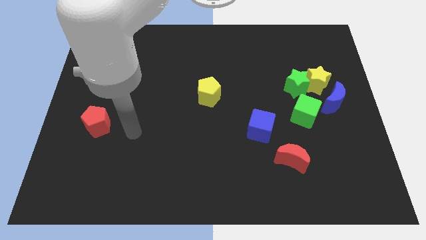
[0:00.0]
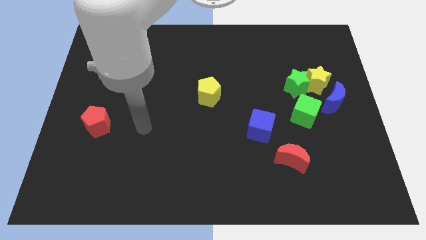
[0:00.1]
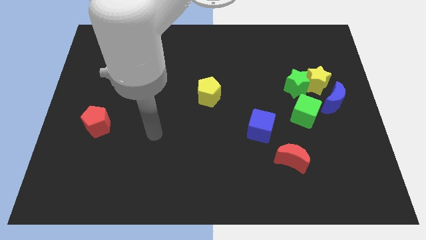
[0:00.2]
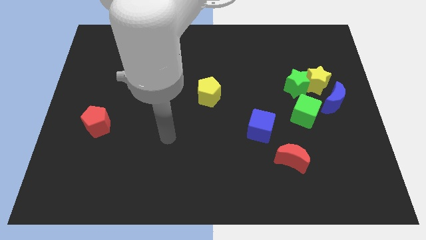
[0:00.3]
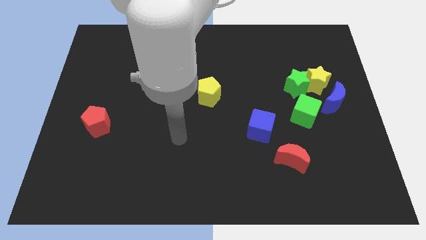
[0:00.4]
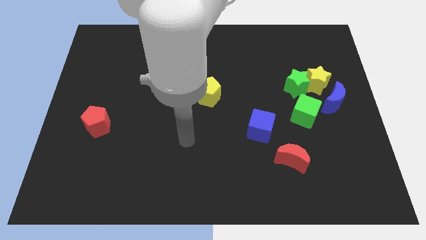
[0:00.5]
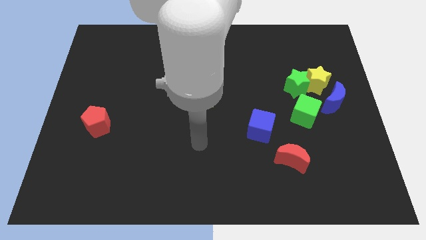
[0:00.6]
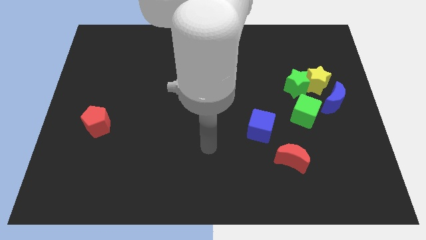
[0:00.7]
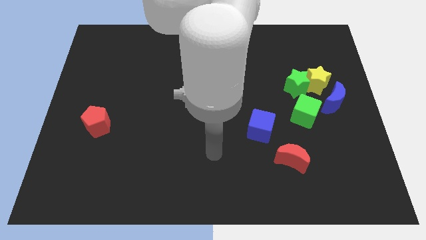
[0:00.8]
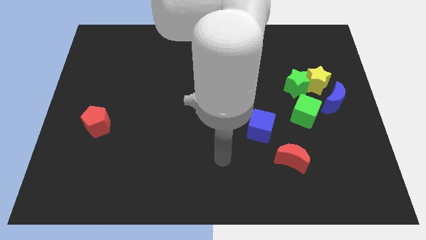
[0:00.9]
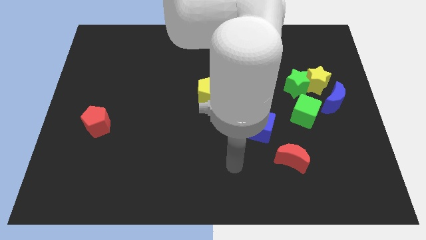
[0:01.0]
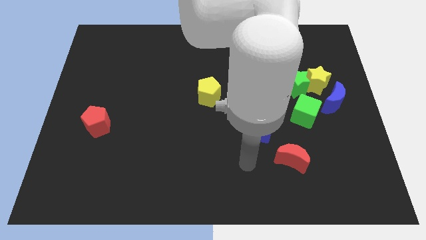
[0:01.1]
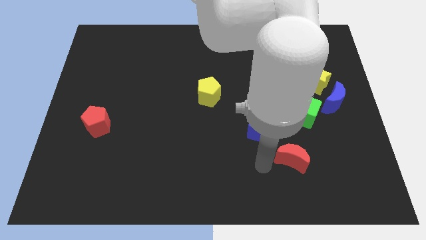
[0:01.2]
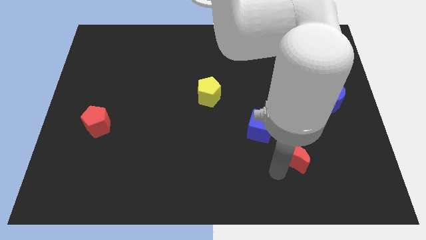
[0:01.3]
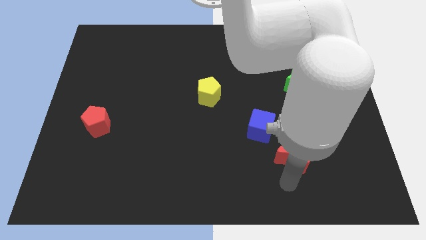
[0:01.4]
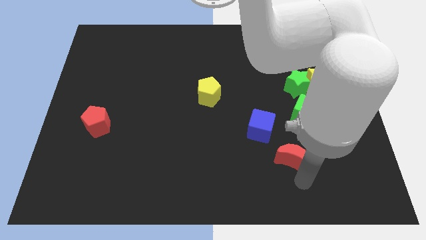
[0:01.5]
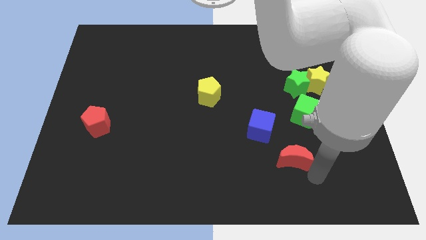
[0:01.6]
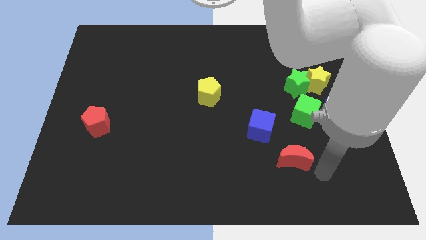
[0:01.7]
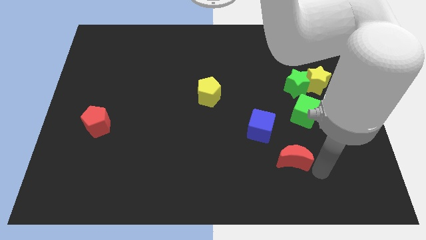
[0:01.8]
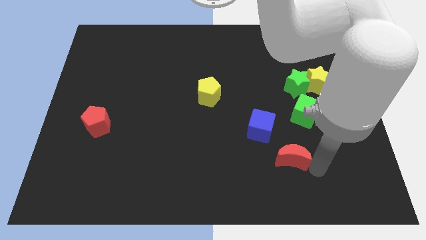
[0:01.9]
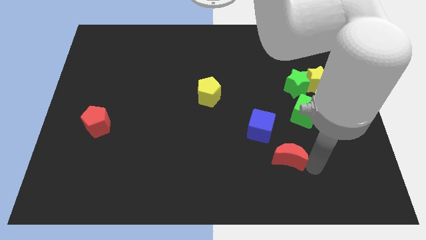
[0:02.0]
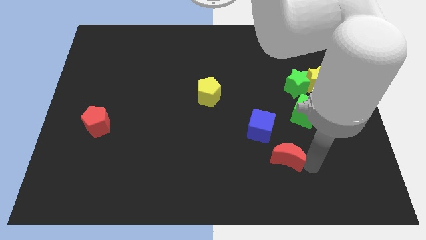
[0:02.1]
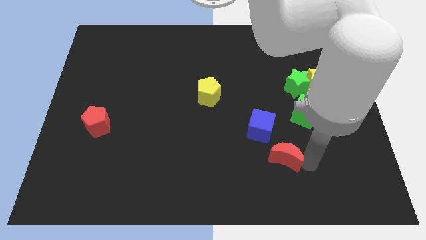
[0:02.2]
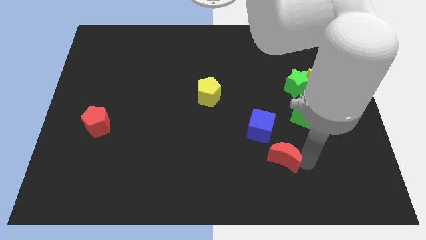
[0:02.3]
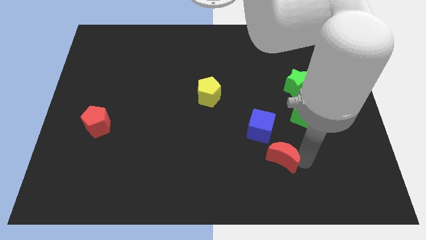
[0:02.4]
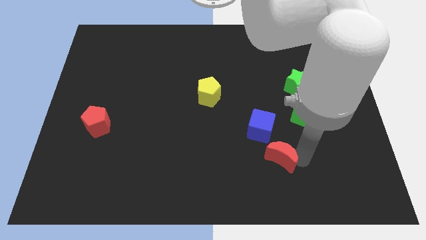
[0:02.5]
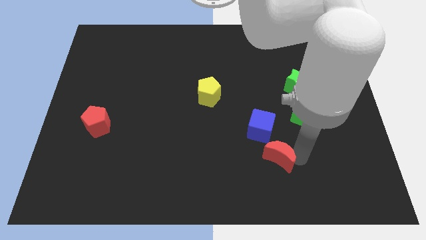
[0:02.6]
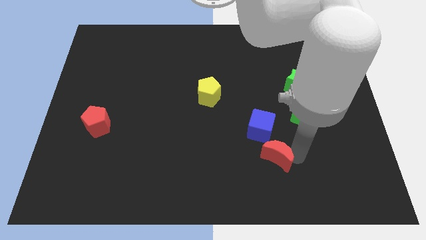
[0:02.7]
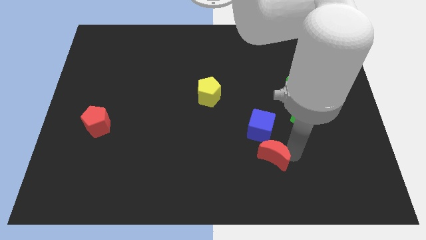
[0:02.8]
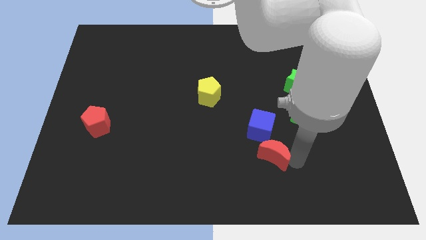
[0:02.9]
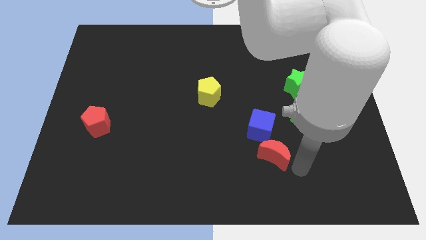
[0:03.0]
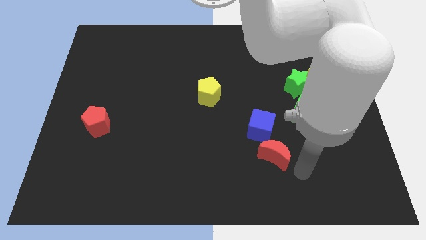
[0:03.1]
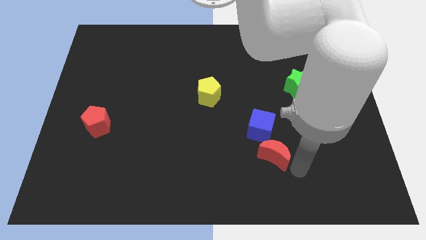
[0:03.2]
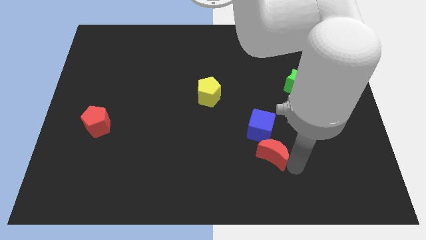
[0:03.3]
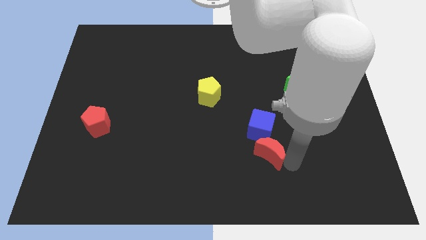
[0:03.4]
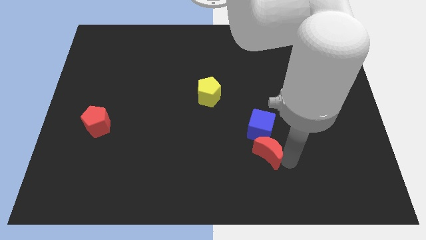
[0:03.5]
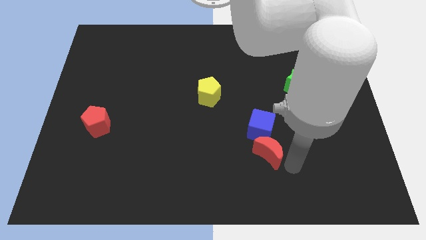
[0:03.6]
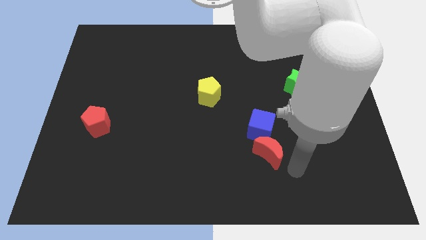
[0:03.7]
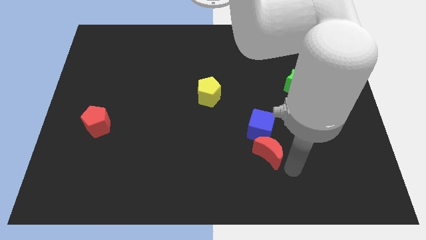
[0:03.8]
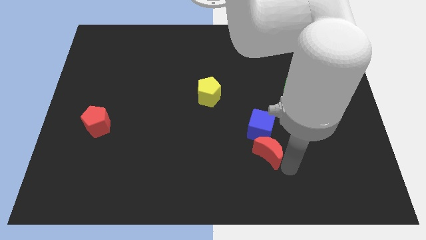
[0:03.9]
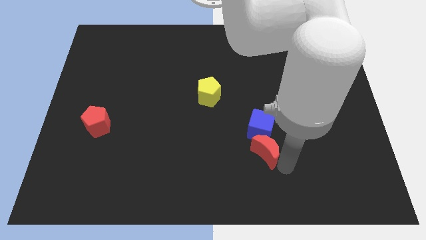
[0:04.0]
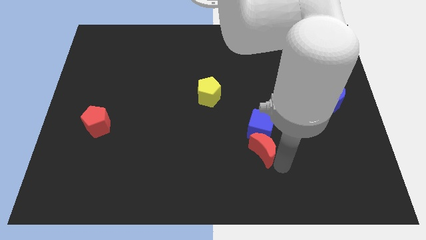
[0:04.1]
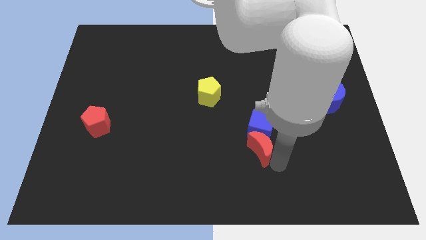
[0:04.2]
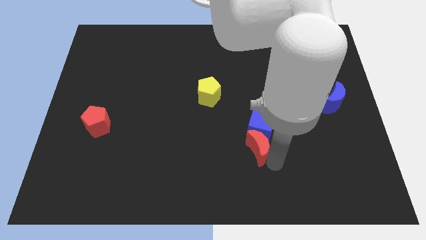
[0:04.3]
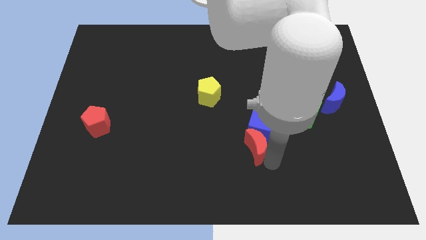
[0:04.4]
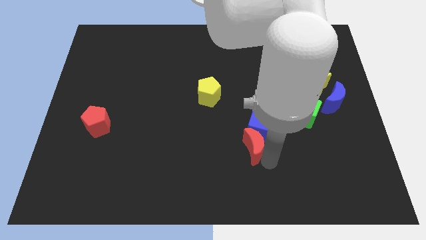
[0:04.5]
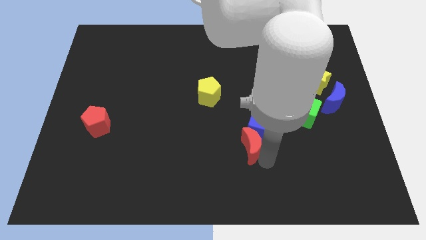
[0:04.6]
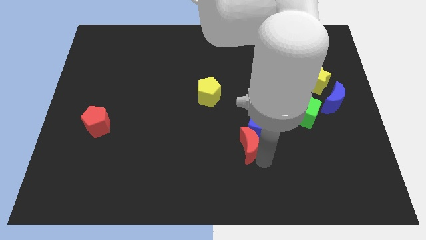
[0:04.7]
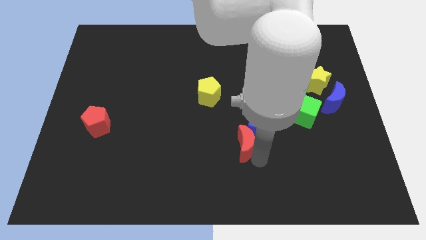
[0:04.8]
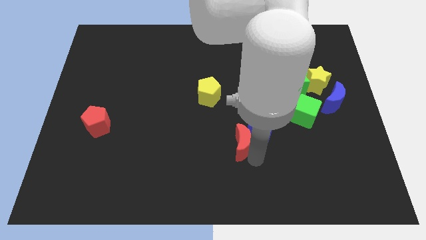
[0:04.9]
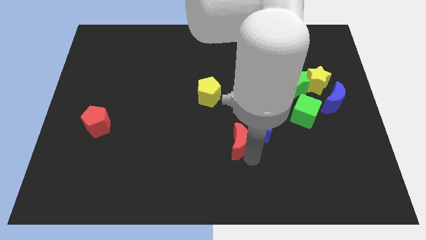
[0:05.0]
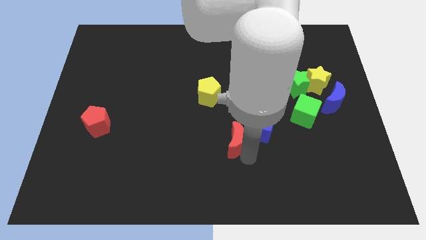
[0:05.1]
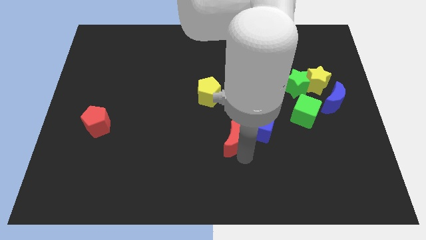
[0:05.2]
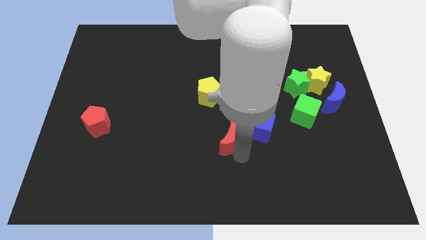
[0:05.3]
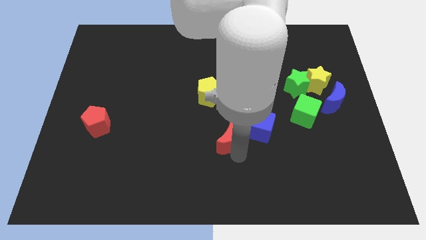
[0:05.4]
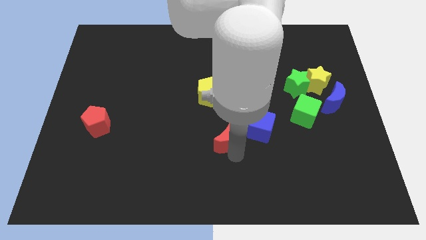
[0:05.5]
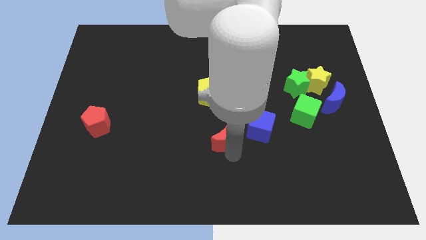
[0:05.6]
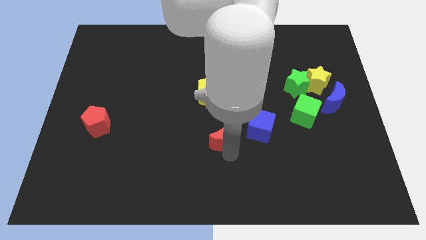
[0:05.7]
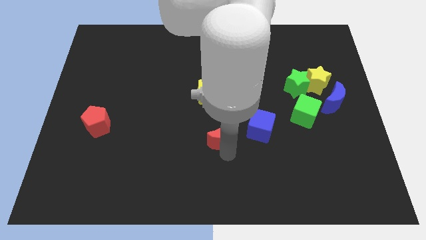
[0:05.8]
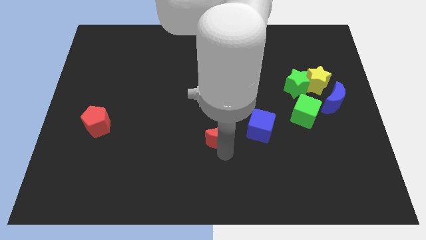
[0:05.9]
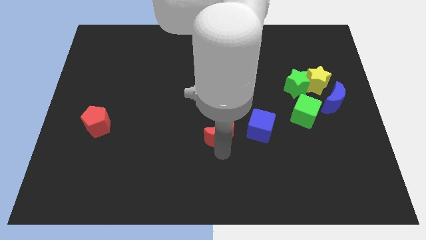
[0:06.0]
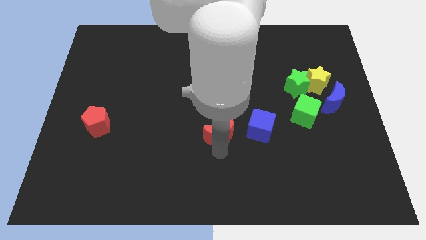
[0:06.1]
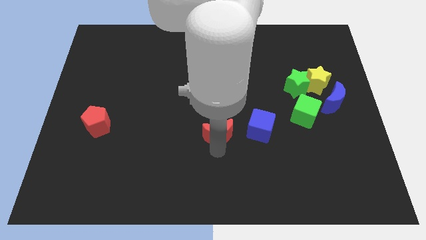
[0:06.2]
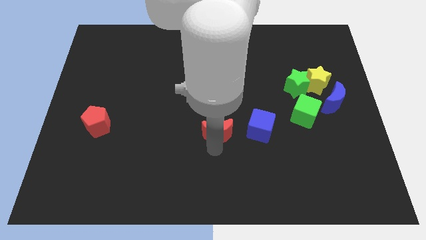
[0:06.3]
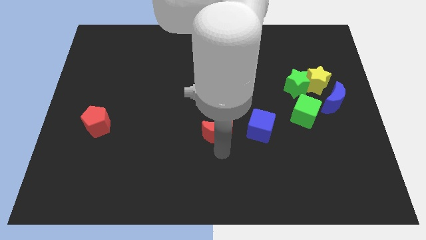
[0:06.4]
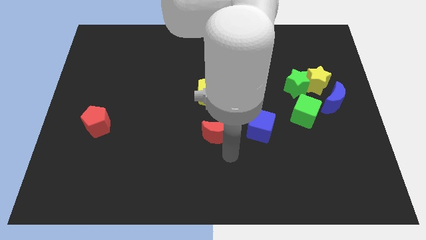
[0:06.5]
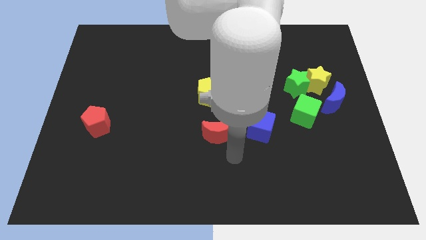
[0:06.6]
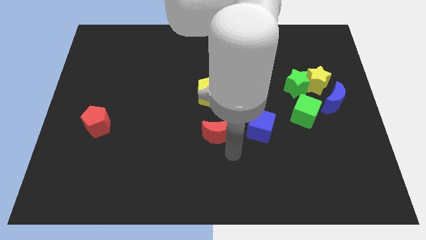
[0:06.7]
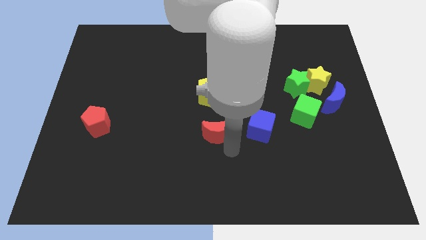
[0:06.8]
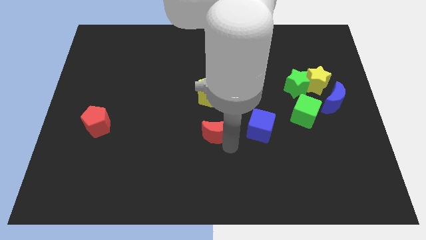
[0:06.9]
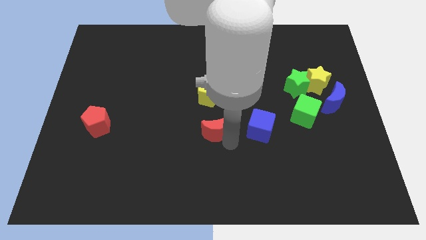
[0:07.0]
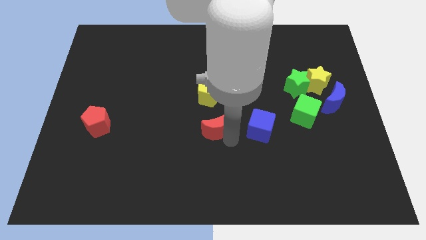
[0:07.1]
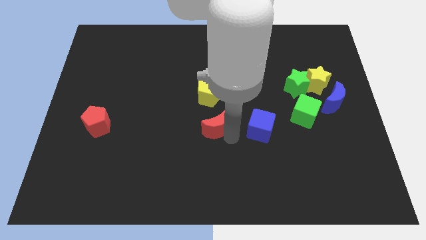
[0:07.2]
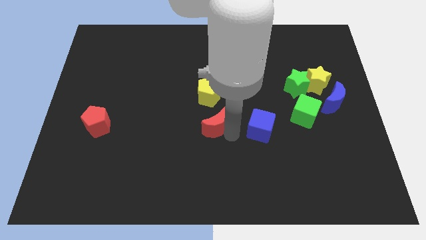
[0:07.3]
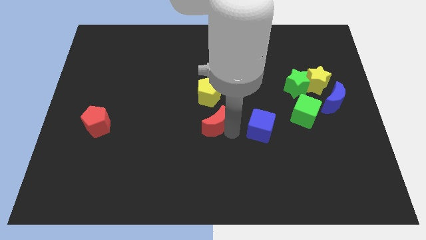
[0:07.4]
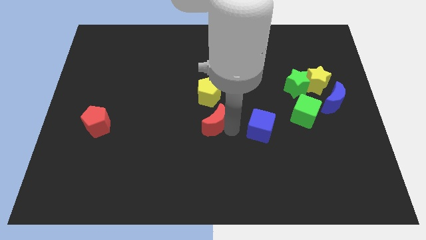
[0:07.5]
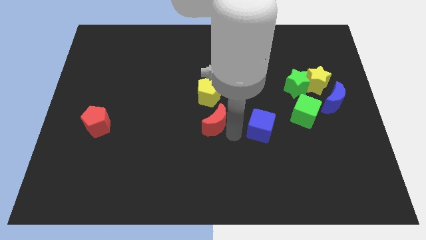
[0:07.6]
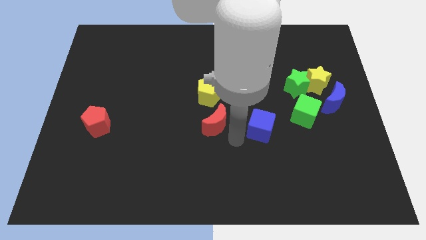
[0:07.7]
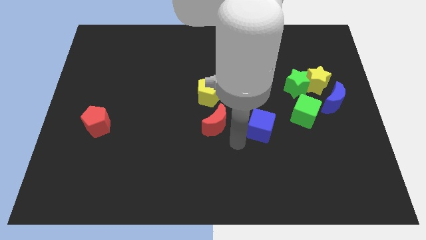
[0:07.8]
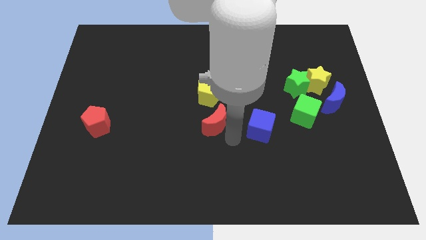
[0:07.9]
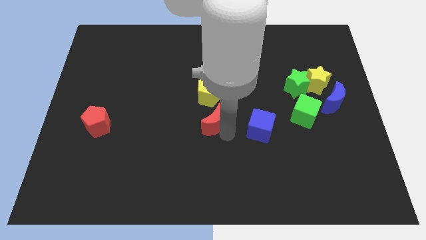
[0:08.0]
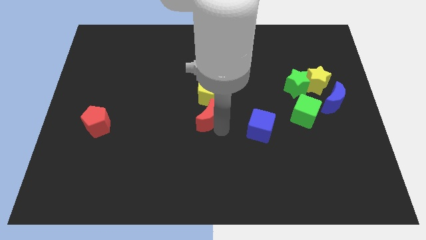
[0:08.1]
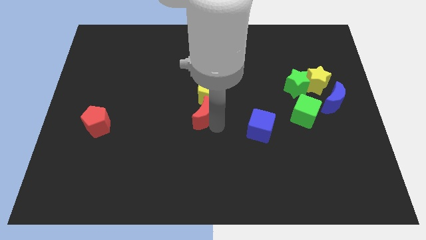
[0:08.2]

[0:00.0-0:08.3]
move the red moon diagonally upwards and to the left

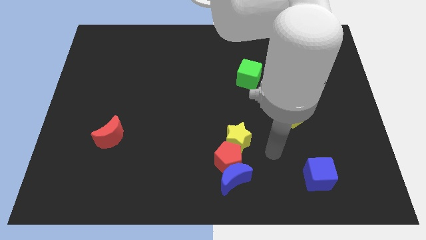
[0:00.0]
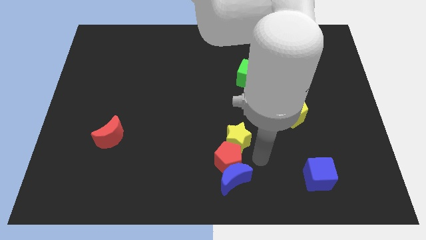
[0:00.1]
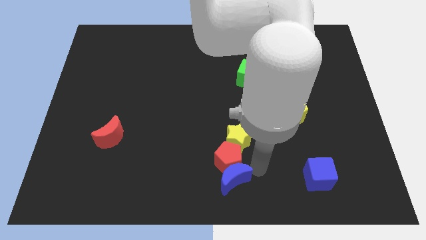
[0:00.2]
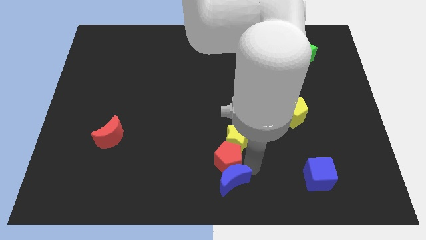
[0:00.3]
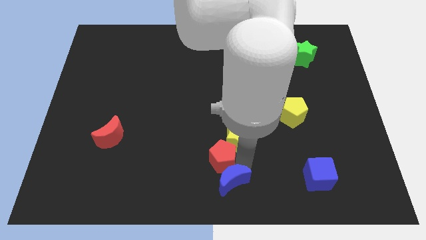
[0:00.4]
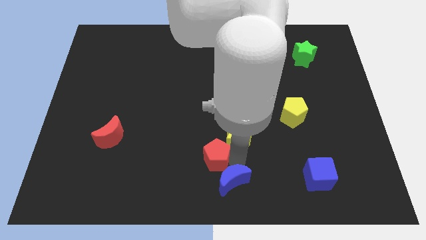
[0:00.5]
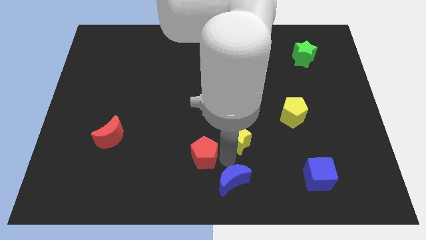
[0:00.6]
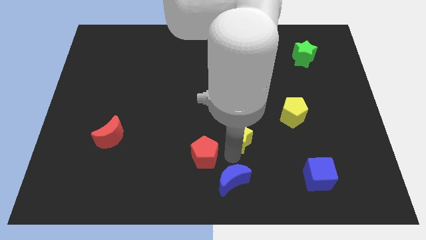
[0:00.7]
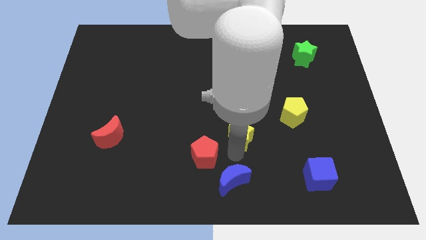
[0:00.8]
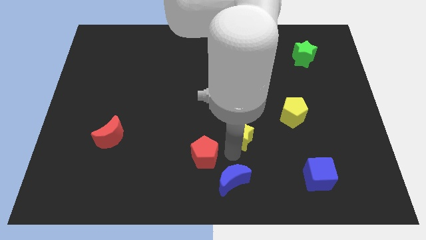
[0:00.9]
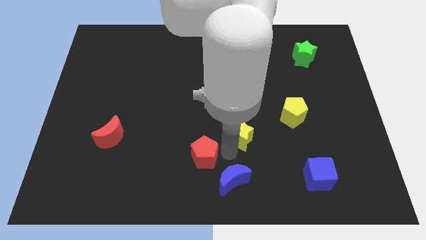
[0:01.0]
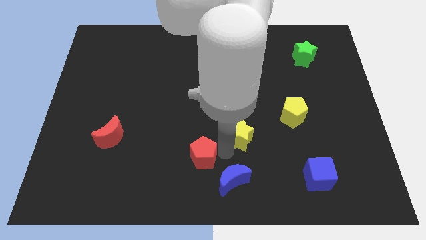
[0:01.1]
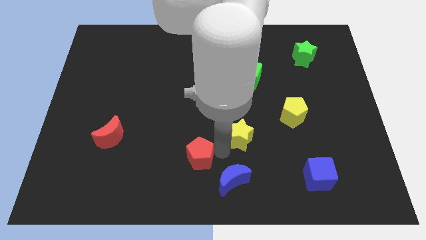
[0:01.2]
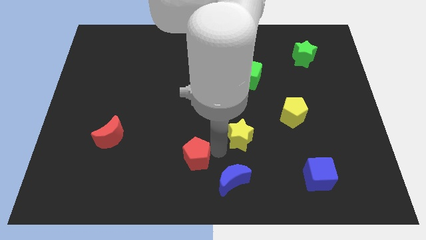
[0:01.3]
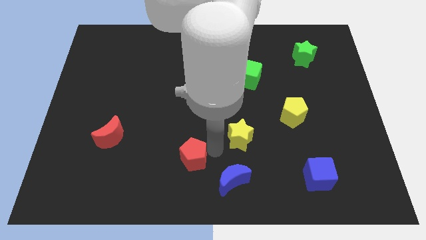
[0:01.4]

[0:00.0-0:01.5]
move the red pentagon a little bit to the left
